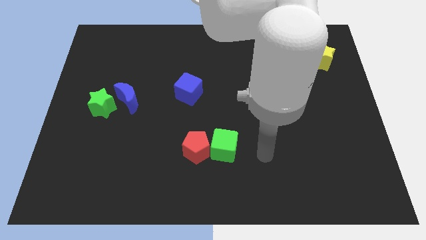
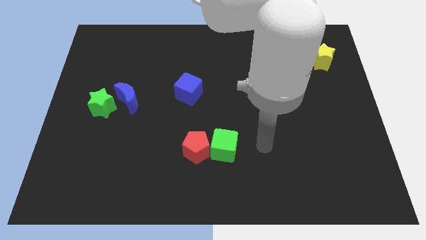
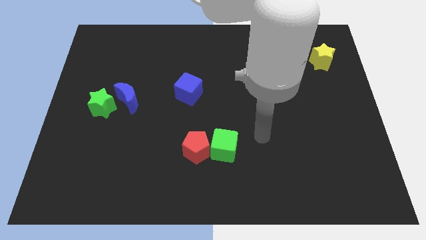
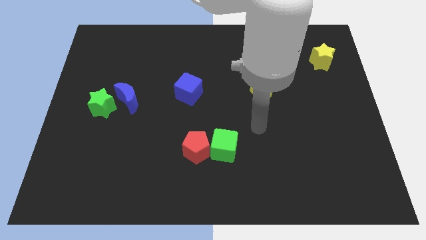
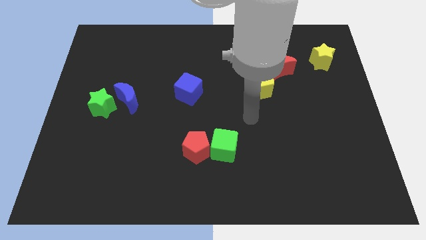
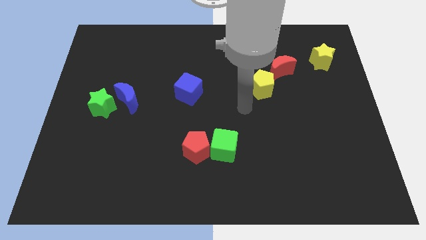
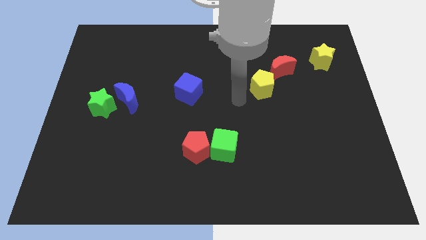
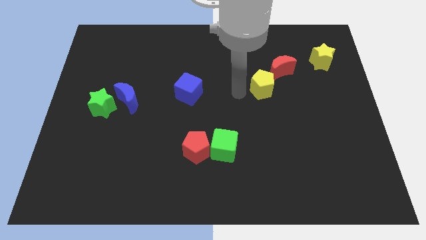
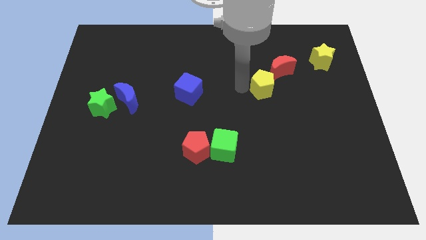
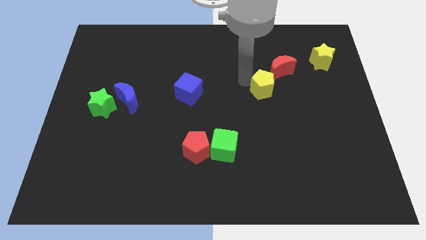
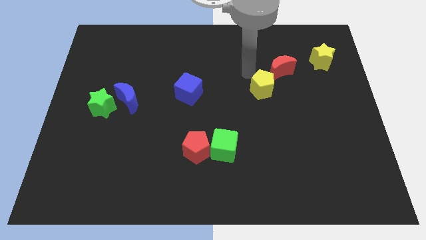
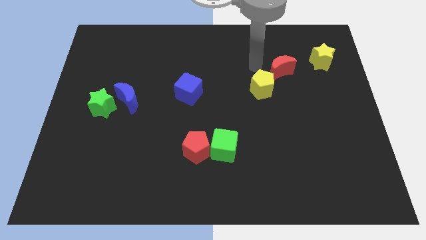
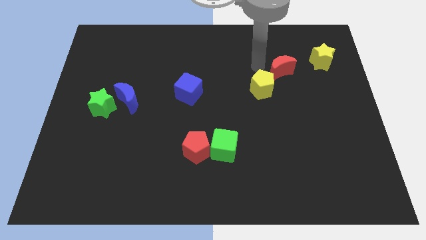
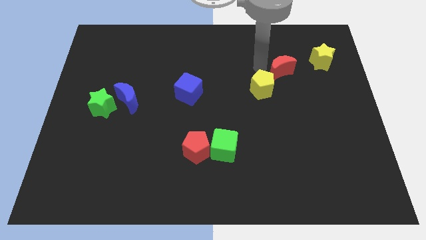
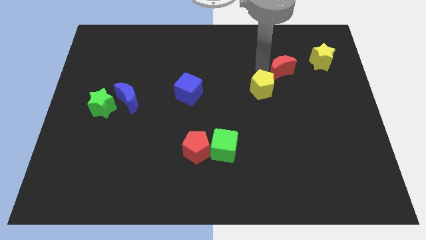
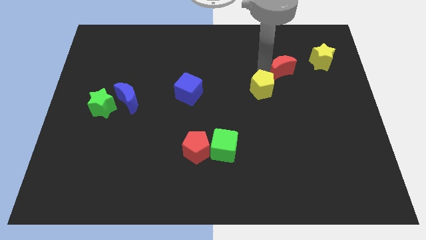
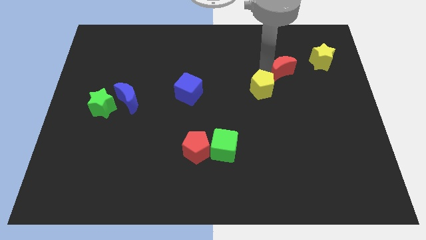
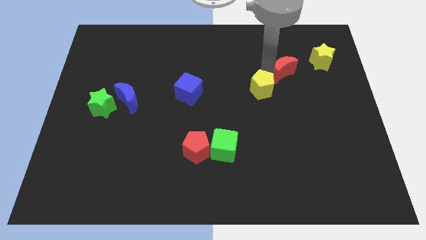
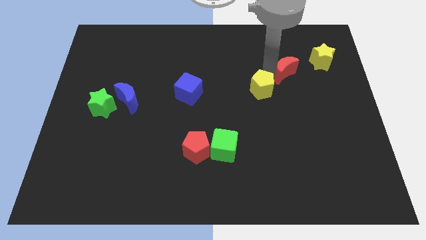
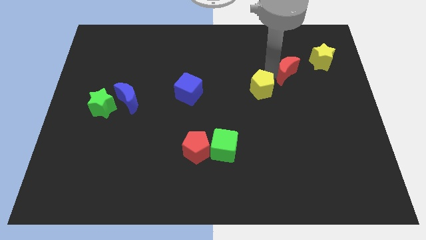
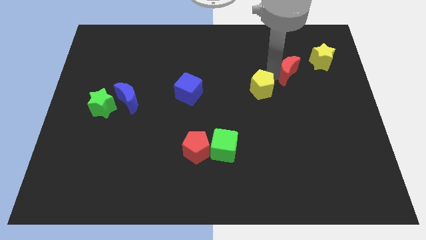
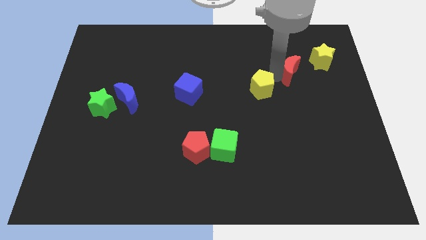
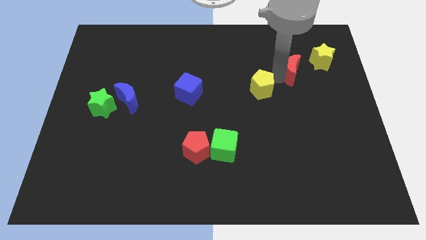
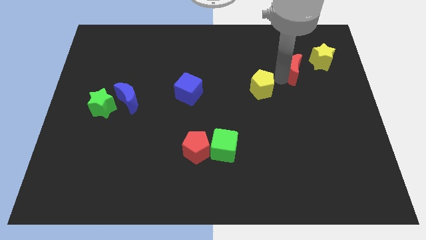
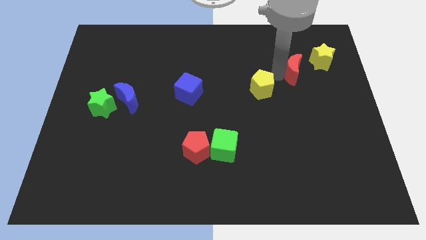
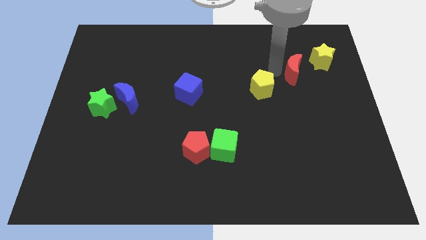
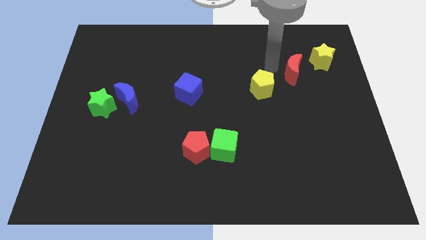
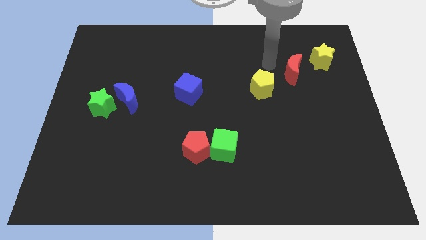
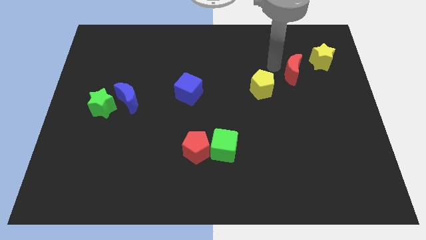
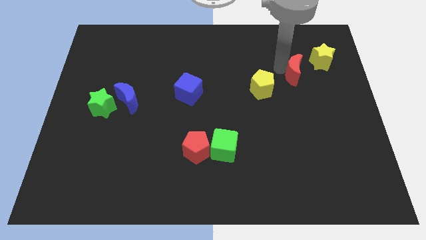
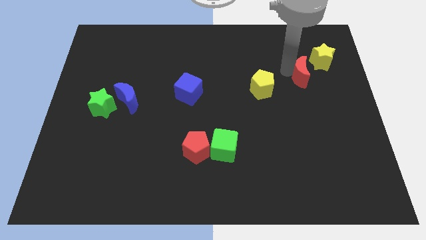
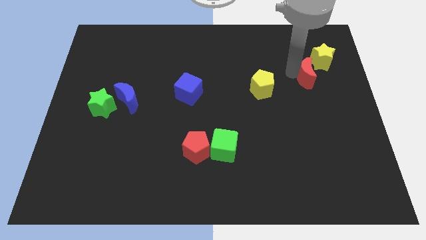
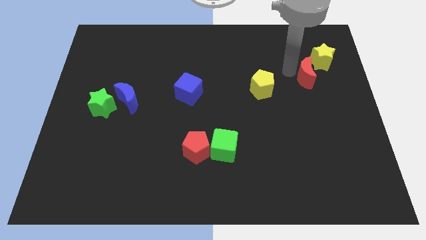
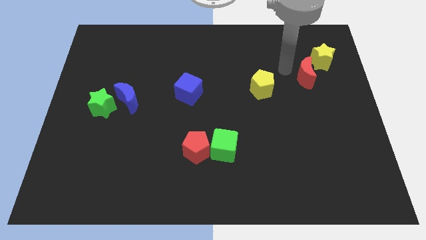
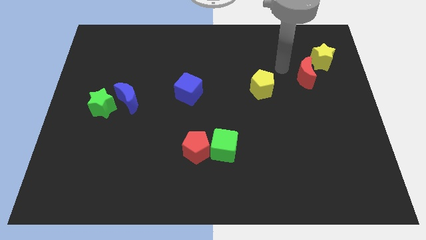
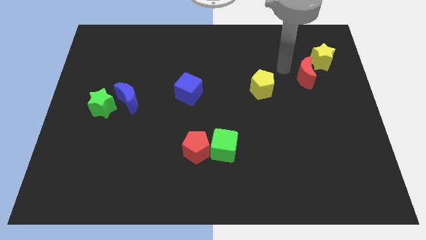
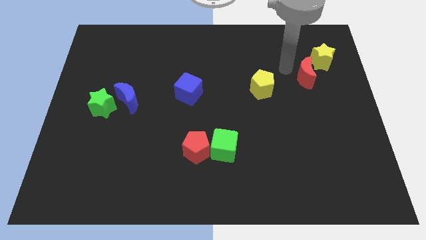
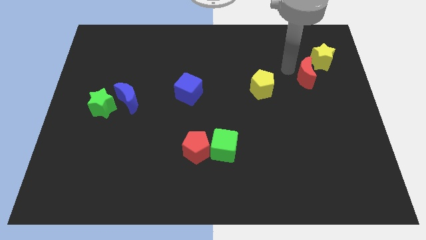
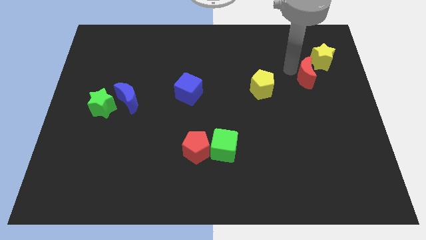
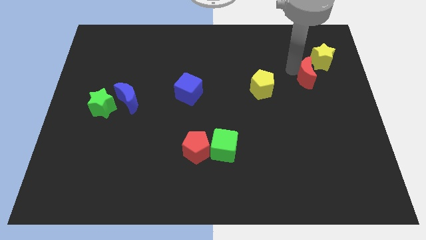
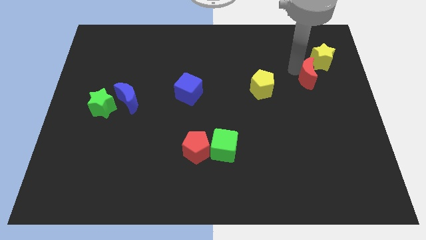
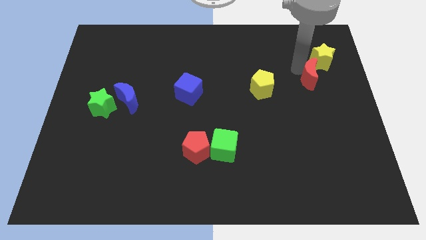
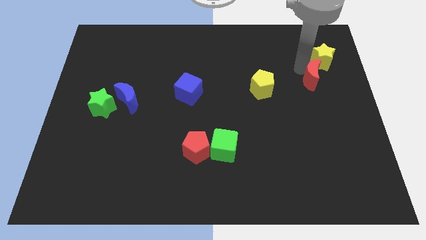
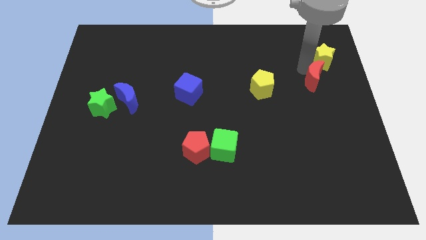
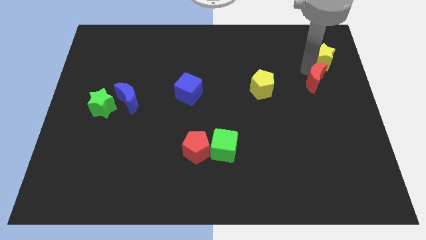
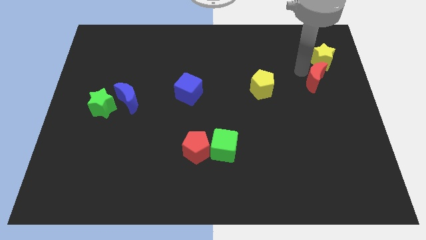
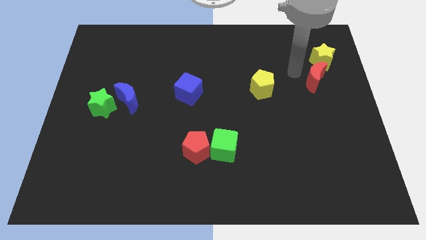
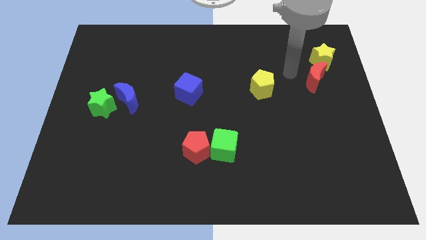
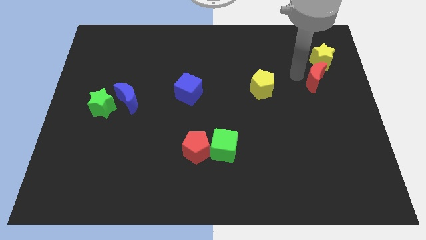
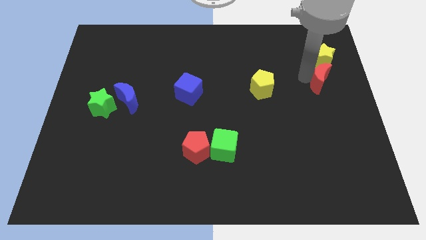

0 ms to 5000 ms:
move the red moon to the right side

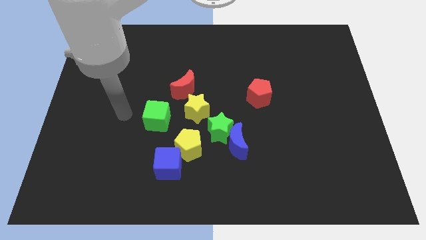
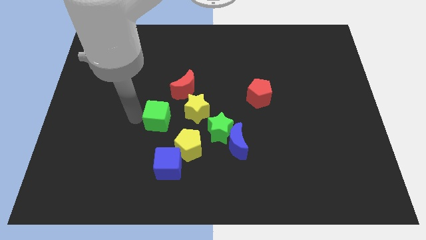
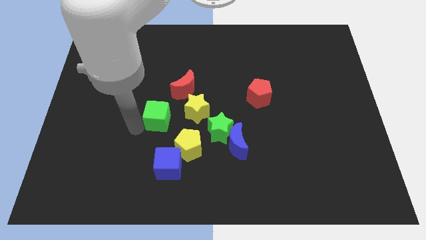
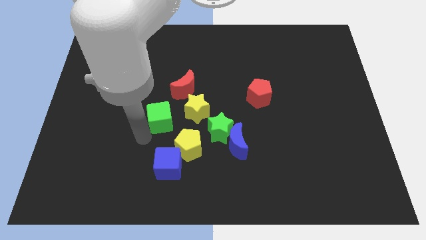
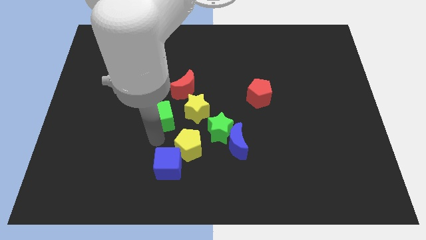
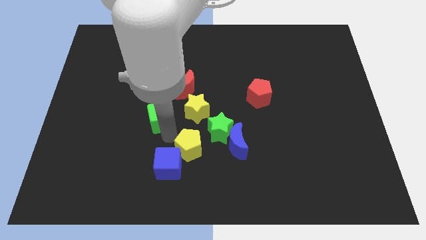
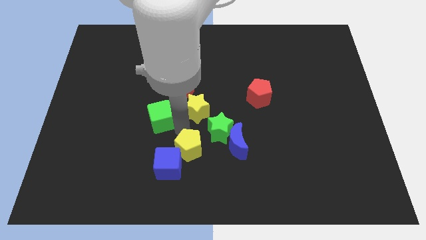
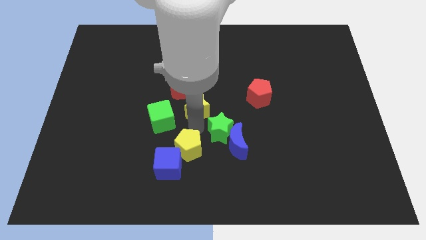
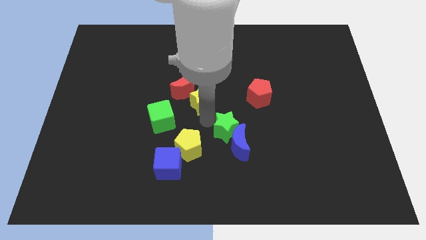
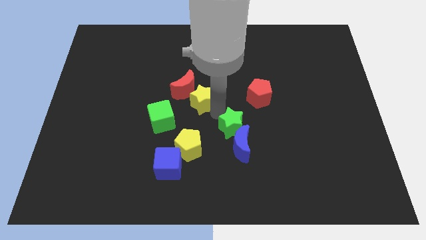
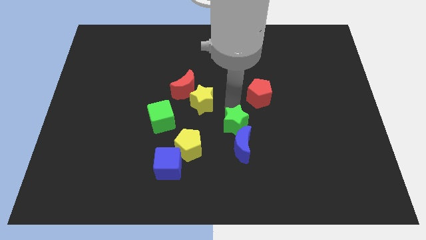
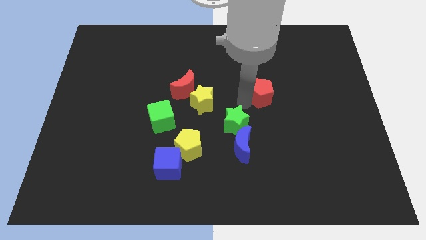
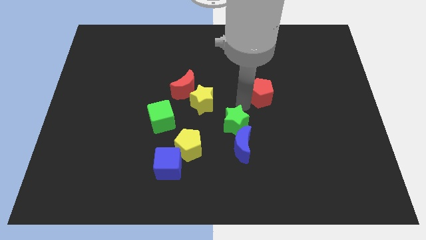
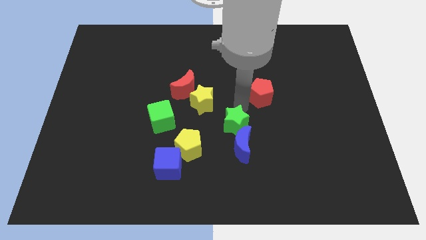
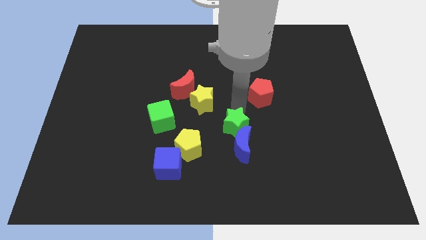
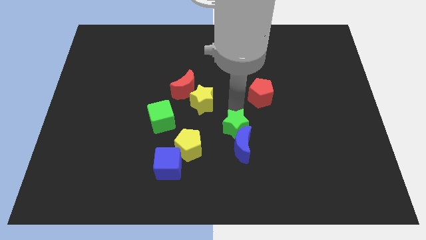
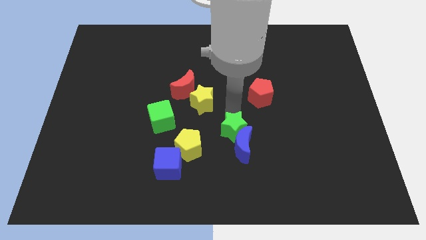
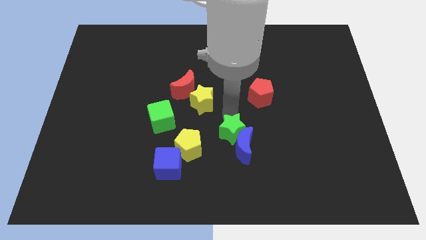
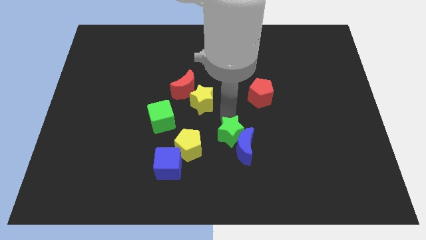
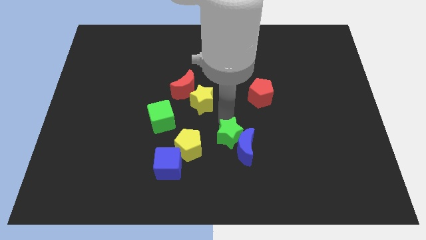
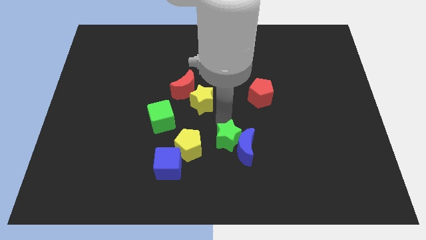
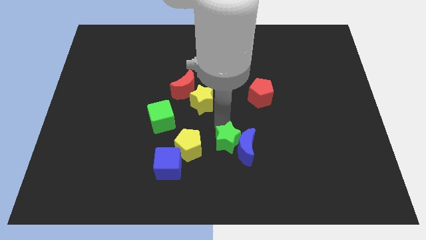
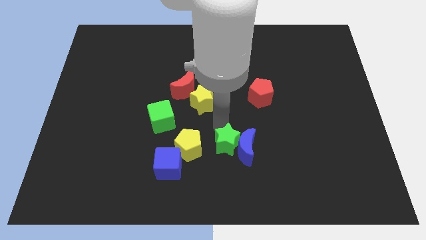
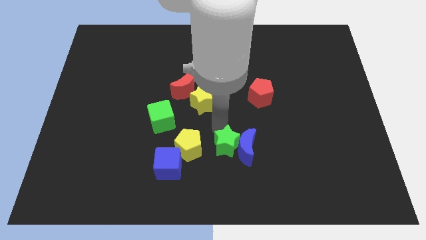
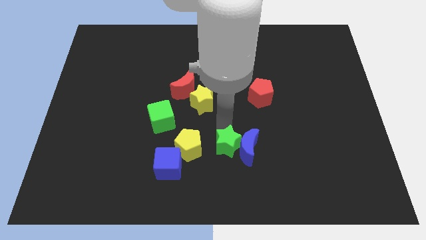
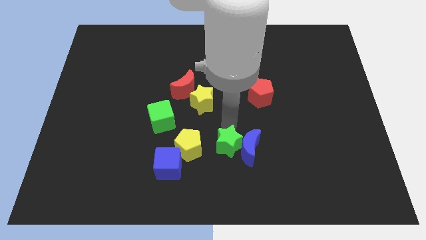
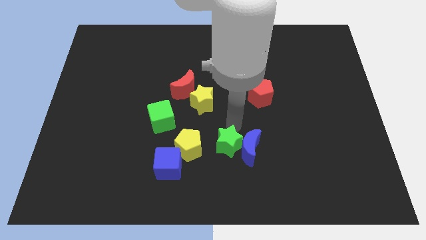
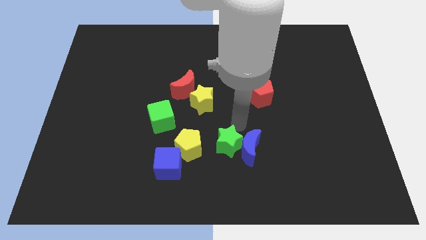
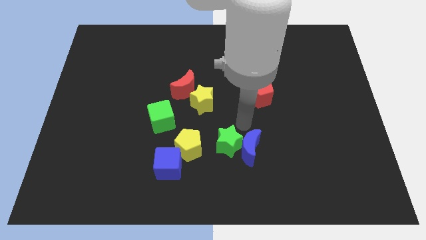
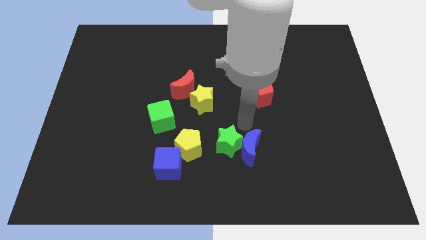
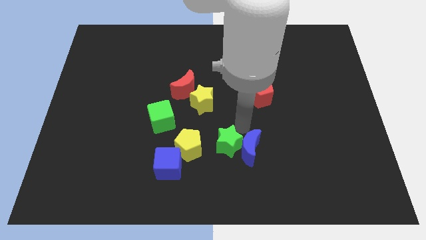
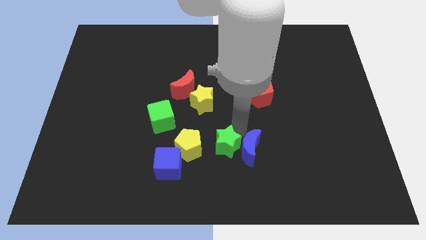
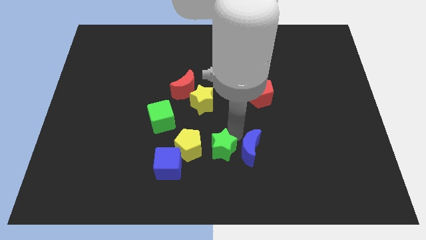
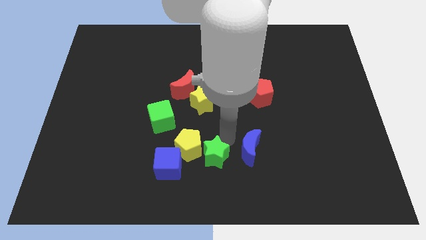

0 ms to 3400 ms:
move the green star to the bottom
